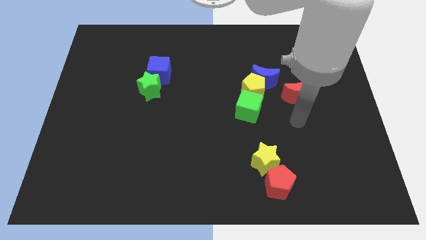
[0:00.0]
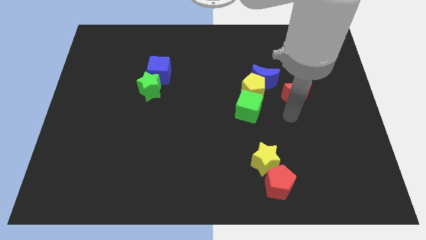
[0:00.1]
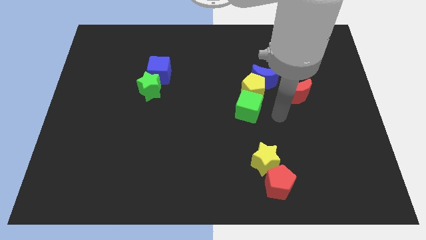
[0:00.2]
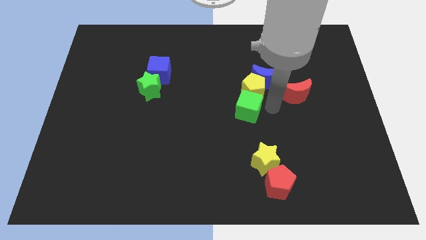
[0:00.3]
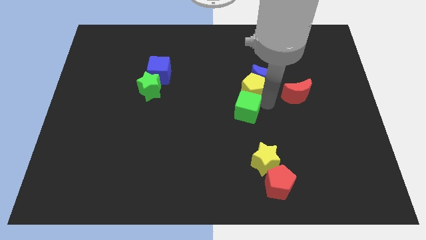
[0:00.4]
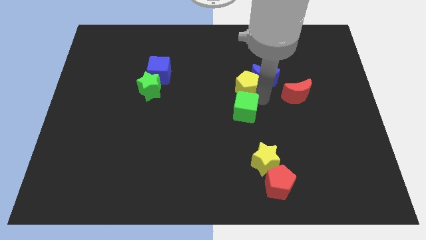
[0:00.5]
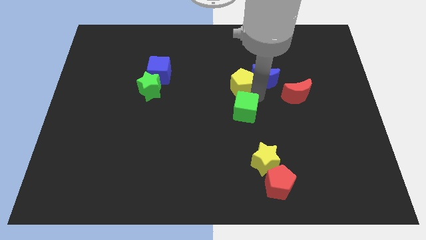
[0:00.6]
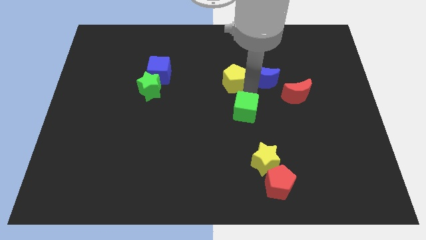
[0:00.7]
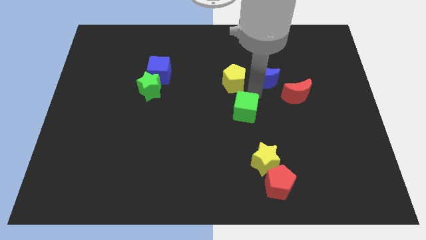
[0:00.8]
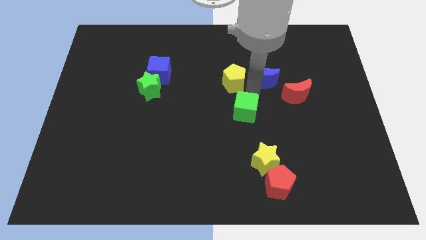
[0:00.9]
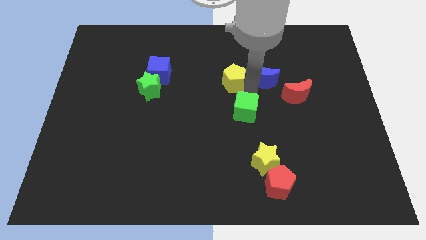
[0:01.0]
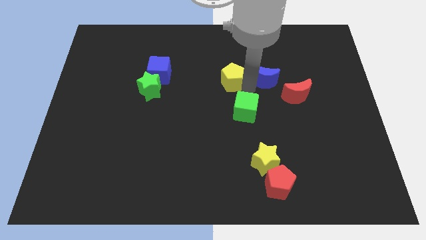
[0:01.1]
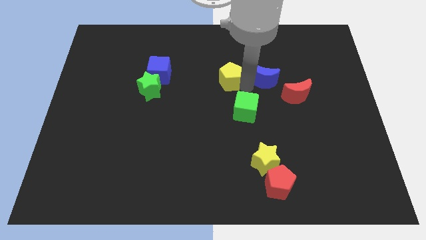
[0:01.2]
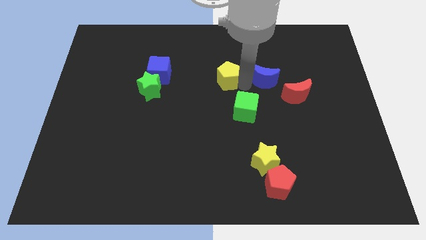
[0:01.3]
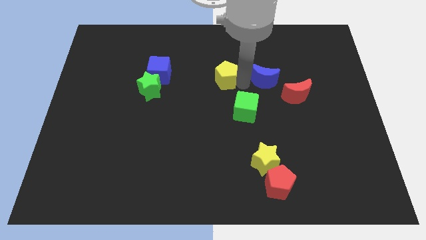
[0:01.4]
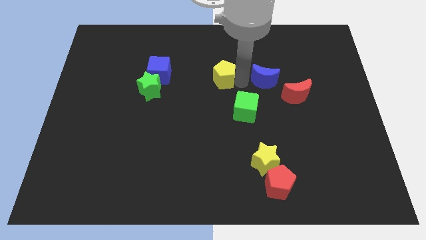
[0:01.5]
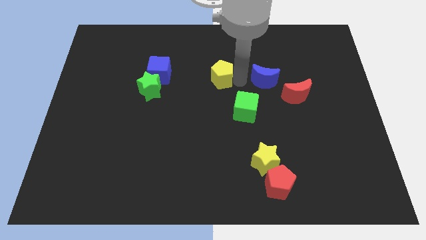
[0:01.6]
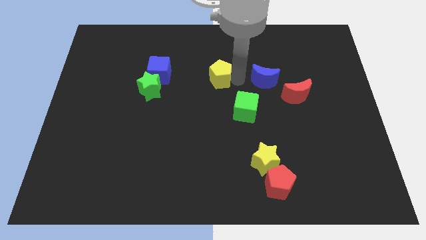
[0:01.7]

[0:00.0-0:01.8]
move the yellow pentagon away from the blue moon and green cube

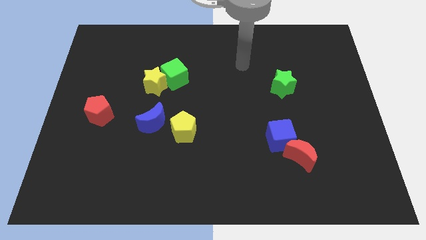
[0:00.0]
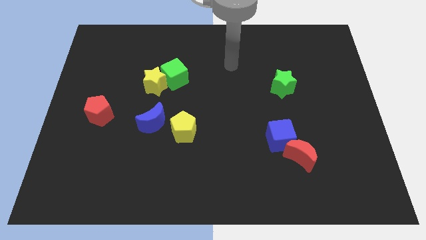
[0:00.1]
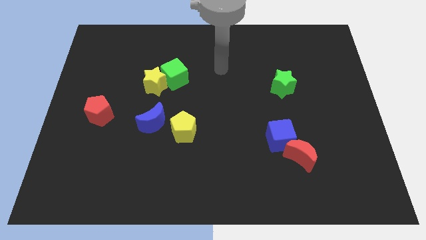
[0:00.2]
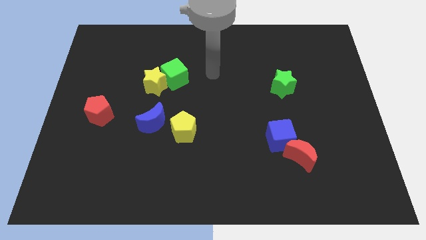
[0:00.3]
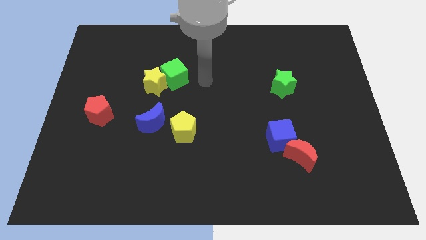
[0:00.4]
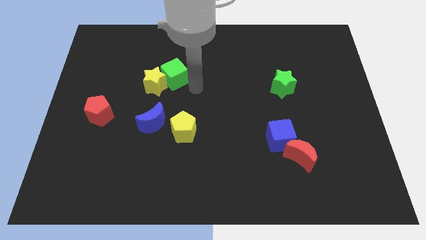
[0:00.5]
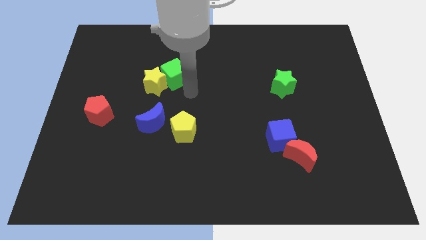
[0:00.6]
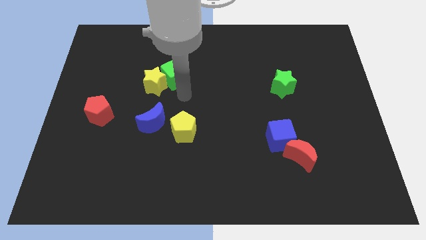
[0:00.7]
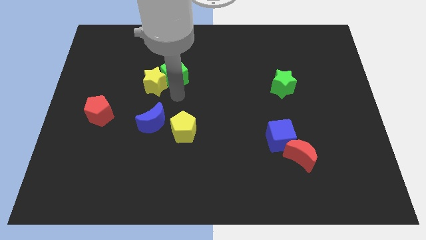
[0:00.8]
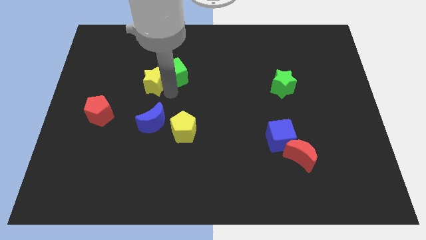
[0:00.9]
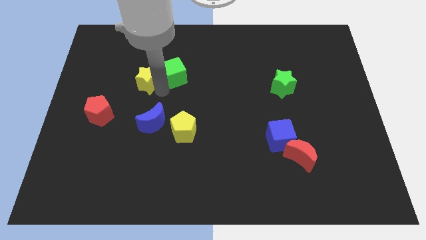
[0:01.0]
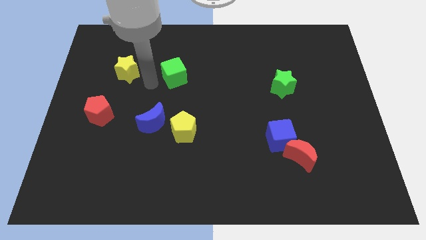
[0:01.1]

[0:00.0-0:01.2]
move the green cube away from the yellow star

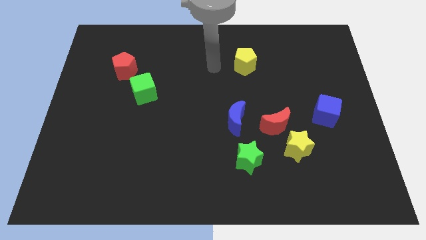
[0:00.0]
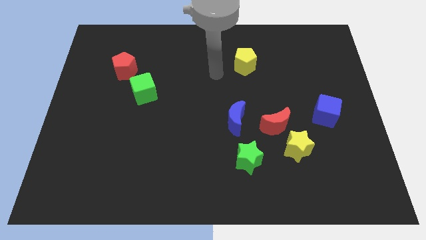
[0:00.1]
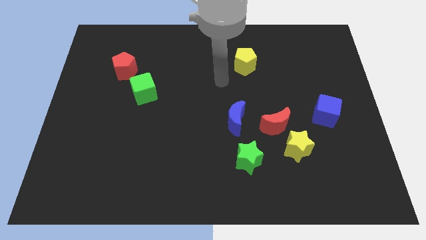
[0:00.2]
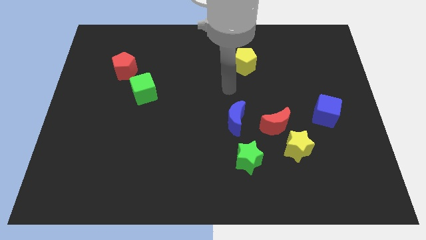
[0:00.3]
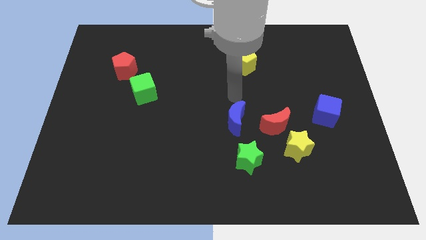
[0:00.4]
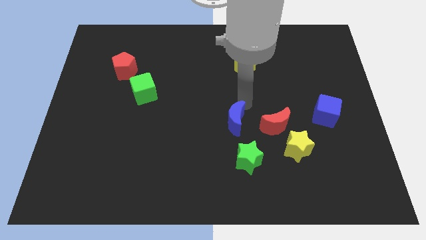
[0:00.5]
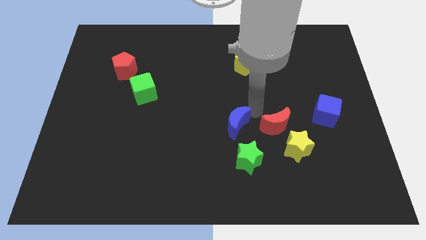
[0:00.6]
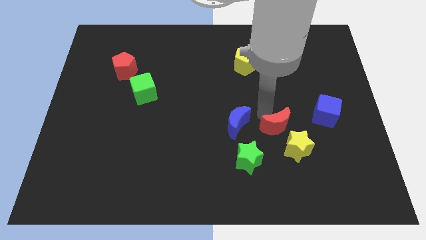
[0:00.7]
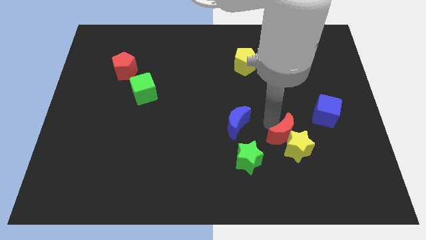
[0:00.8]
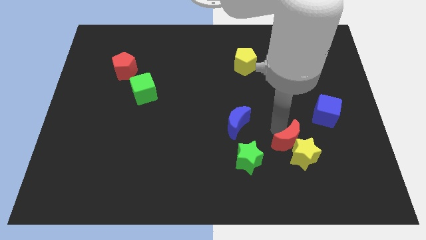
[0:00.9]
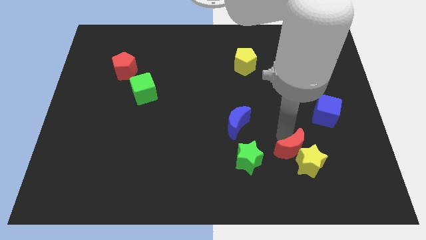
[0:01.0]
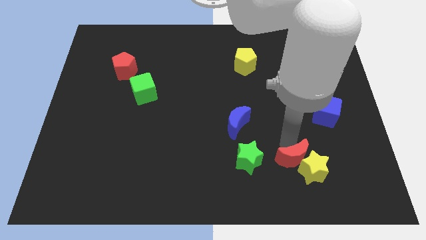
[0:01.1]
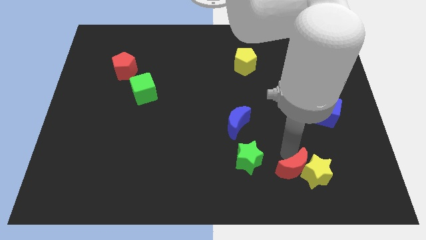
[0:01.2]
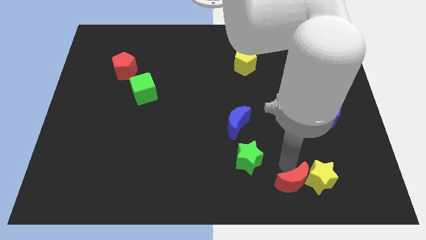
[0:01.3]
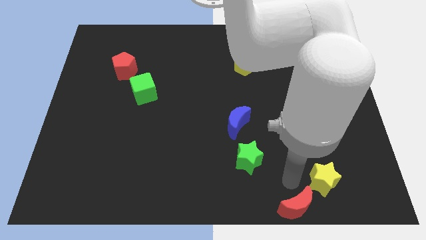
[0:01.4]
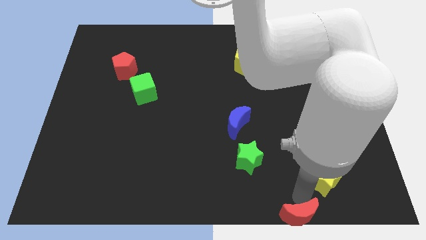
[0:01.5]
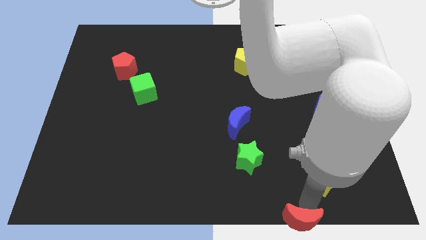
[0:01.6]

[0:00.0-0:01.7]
separate the yellow star from the red moon

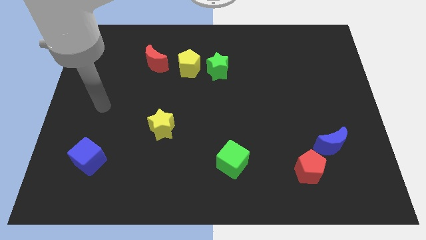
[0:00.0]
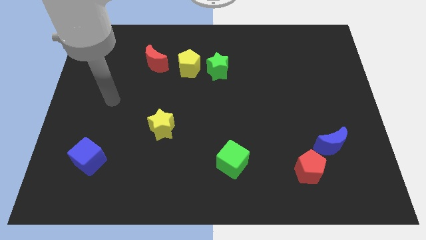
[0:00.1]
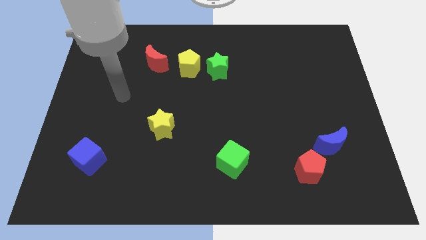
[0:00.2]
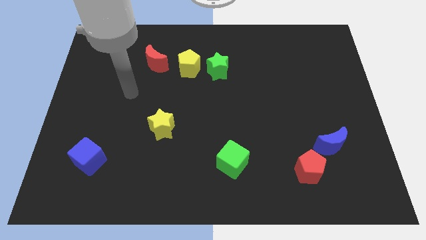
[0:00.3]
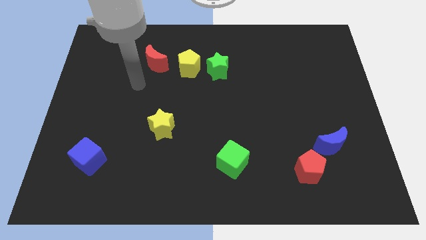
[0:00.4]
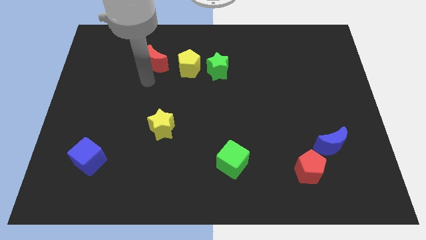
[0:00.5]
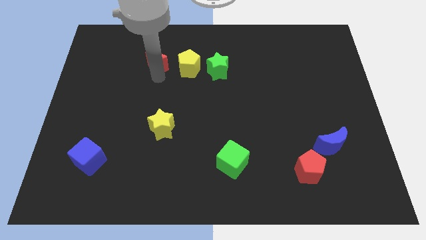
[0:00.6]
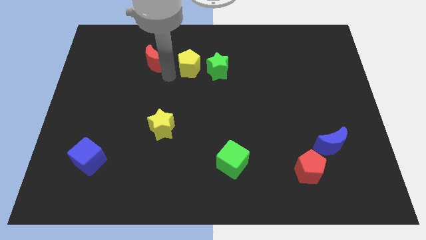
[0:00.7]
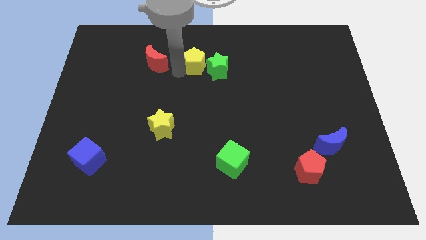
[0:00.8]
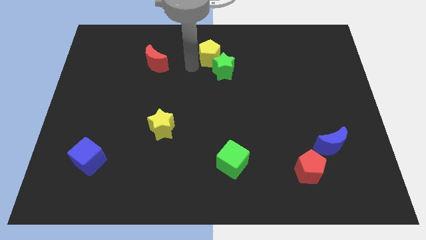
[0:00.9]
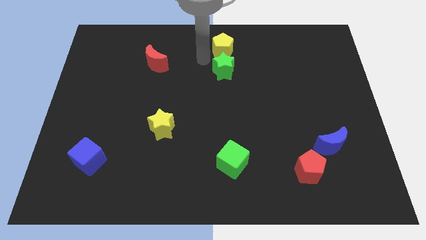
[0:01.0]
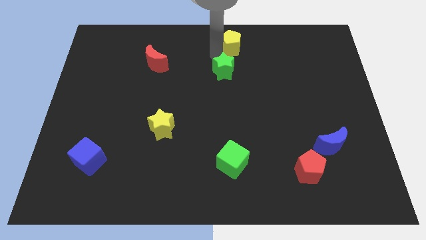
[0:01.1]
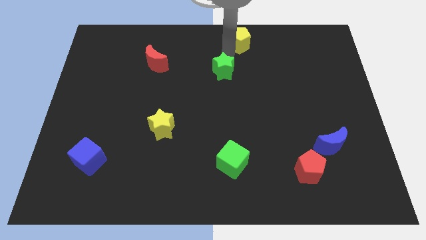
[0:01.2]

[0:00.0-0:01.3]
pull the green star apart from the yellow pentagon

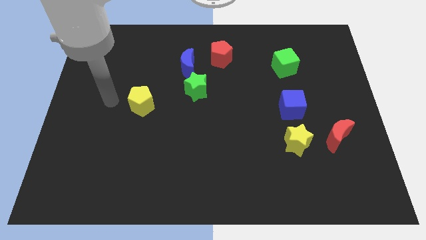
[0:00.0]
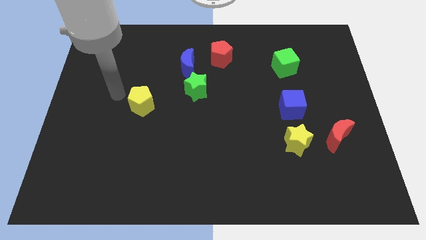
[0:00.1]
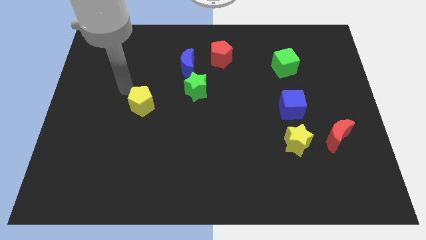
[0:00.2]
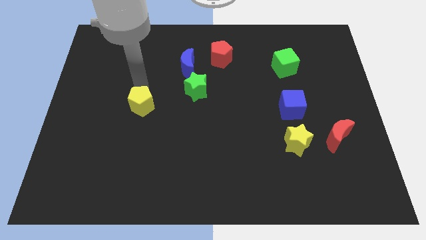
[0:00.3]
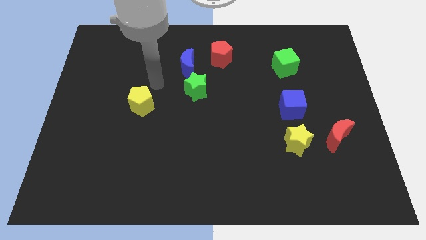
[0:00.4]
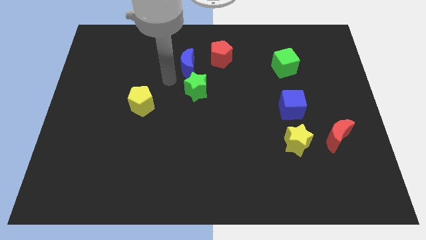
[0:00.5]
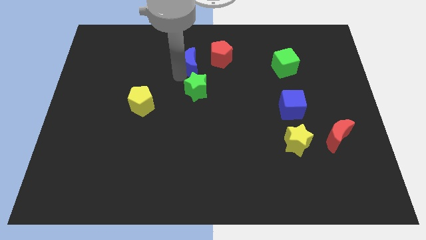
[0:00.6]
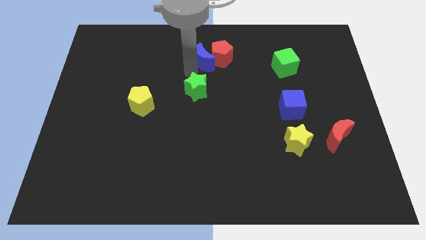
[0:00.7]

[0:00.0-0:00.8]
move the green star away from the blue moon

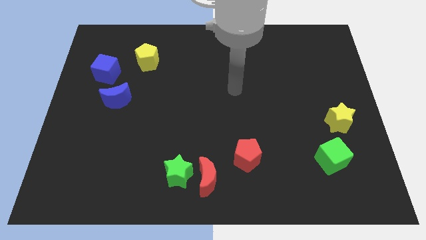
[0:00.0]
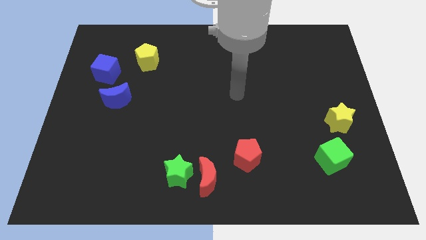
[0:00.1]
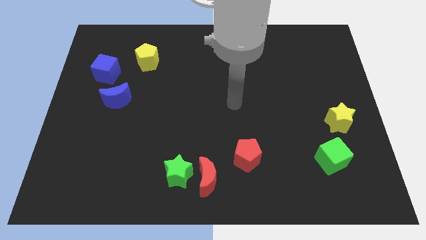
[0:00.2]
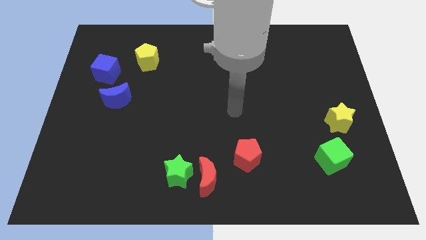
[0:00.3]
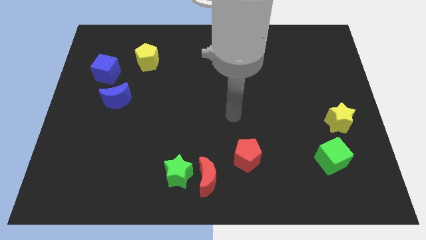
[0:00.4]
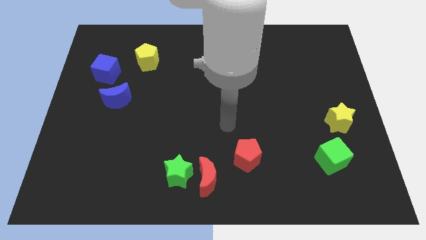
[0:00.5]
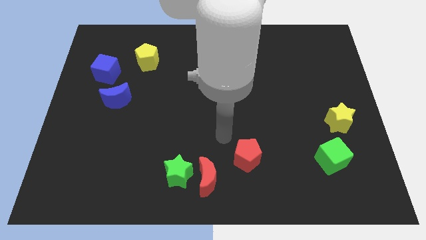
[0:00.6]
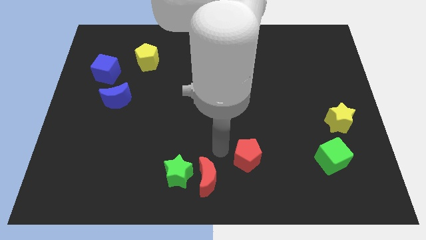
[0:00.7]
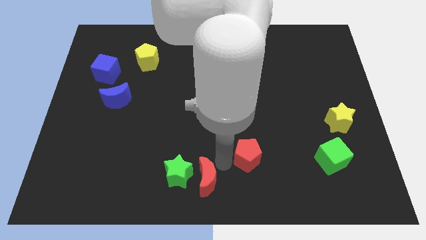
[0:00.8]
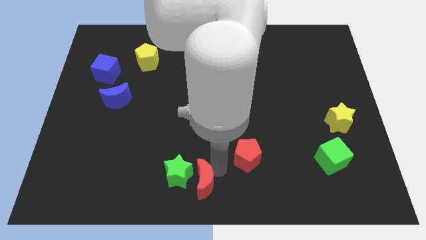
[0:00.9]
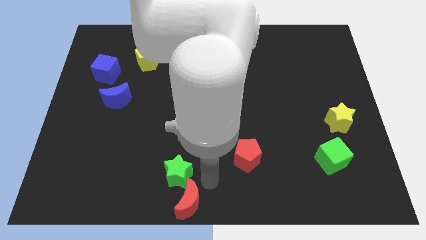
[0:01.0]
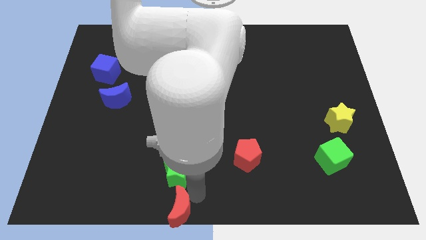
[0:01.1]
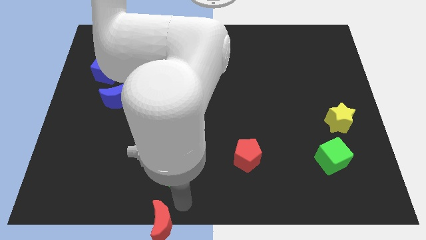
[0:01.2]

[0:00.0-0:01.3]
pull the green star apart from the red moon

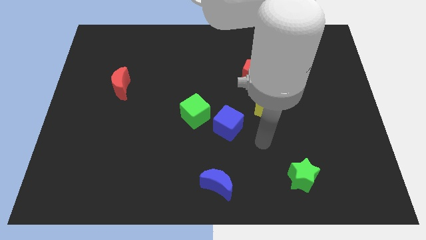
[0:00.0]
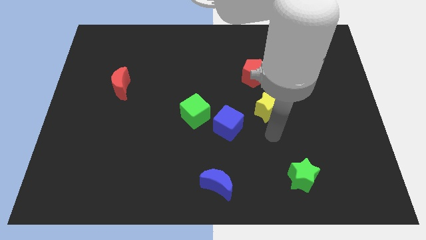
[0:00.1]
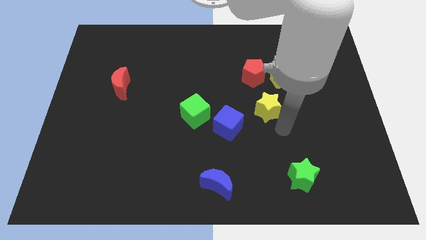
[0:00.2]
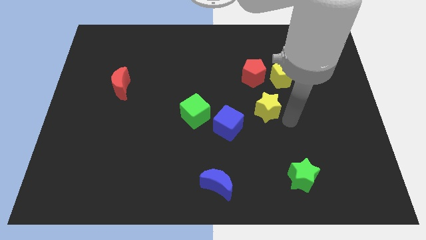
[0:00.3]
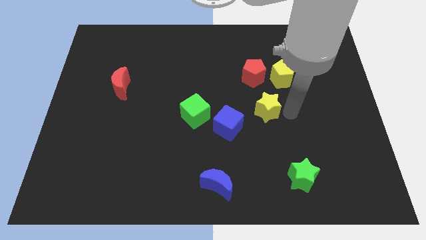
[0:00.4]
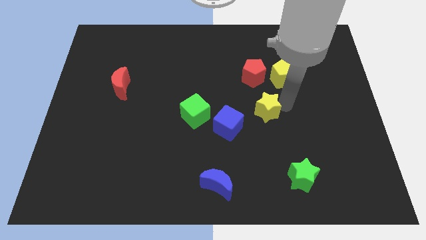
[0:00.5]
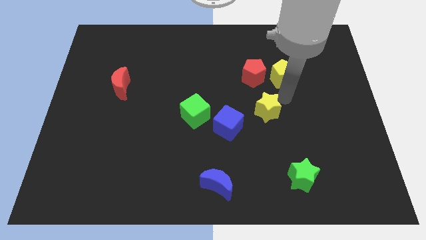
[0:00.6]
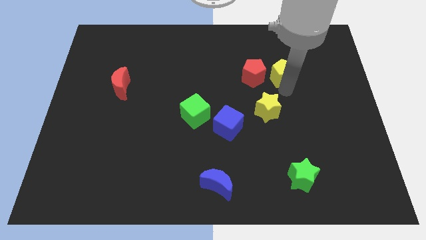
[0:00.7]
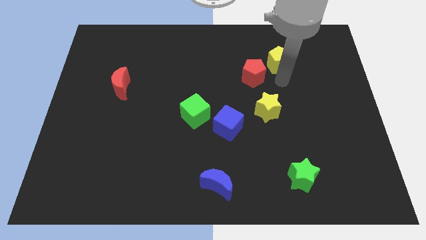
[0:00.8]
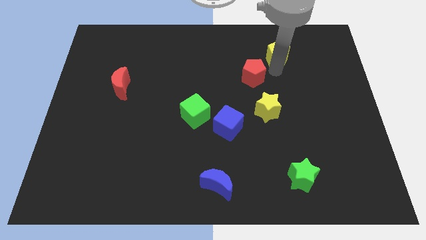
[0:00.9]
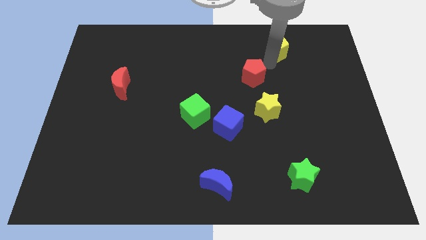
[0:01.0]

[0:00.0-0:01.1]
separate the red pentagon from the yellow pentagon
